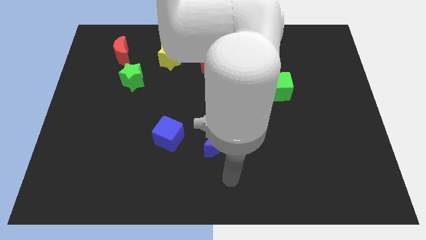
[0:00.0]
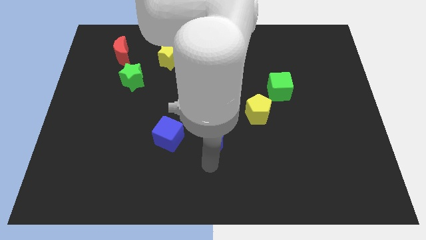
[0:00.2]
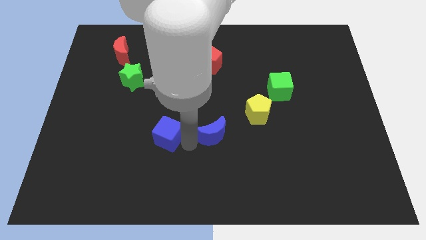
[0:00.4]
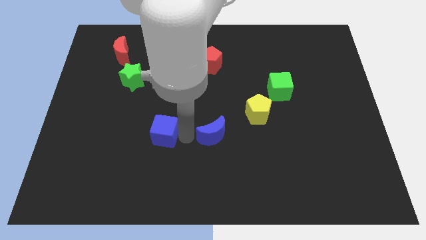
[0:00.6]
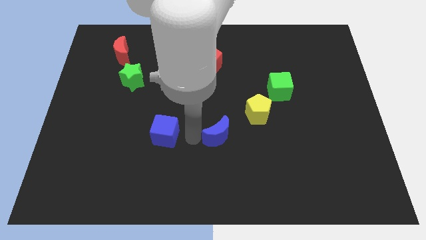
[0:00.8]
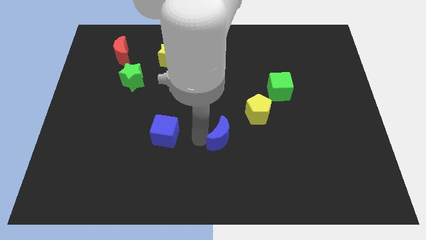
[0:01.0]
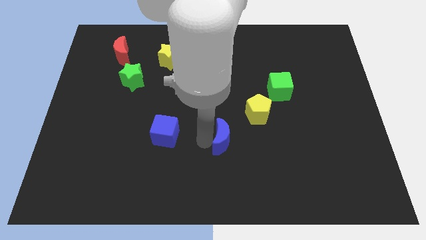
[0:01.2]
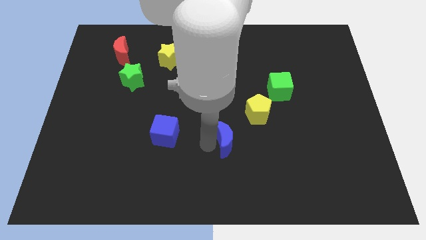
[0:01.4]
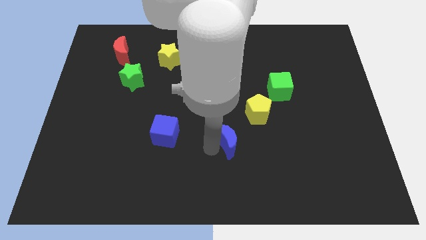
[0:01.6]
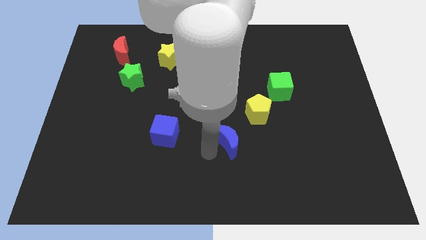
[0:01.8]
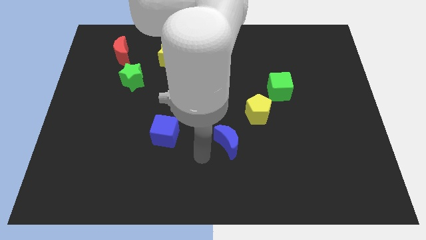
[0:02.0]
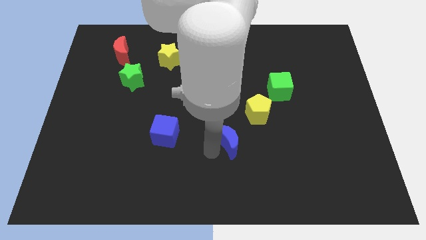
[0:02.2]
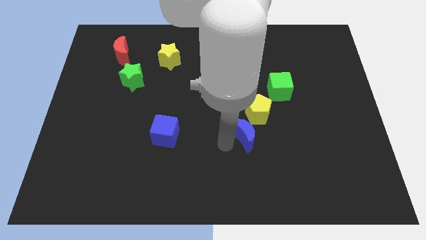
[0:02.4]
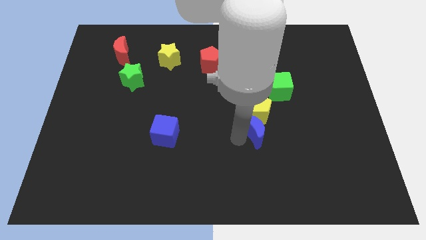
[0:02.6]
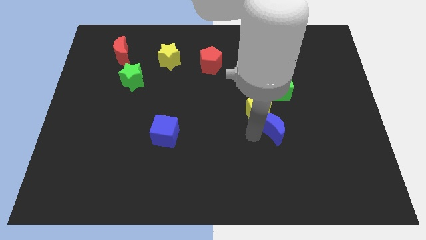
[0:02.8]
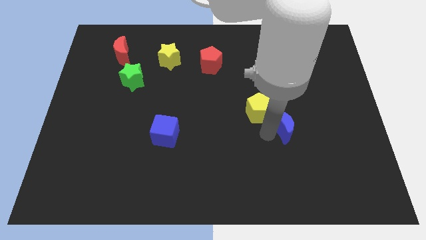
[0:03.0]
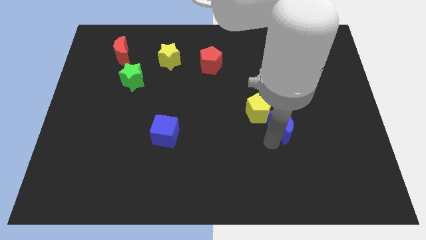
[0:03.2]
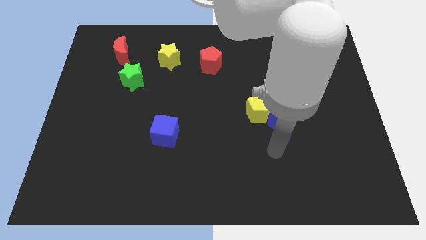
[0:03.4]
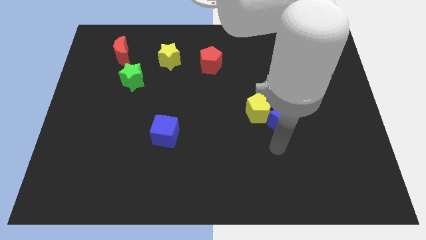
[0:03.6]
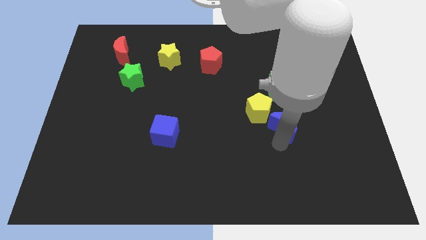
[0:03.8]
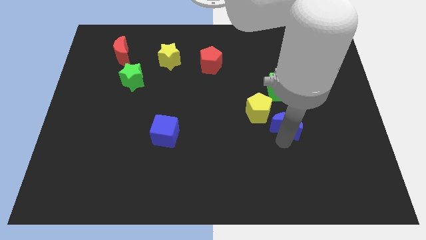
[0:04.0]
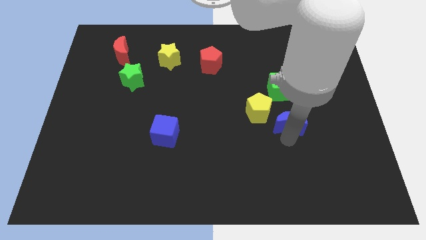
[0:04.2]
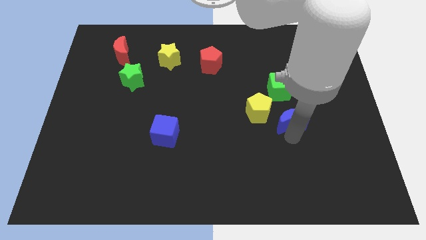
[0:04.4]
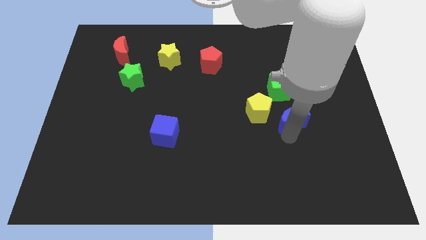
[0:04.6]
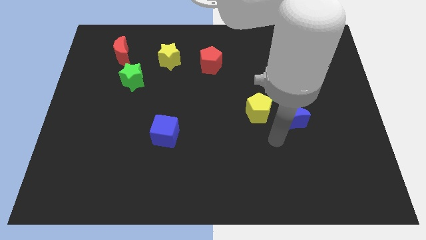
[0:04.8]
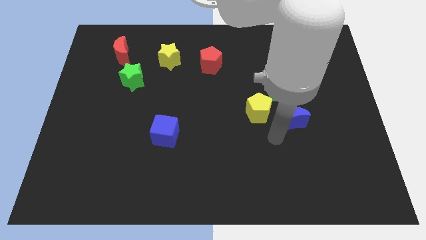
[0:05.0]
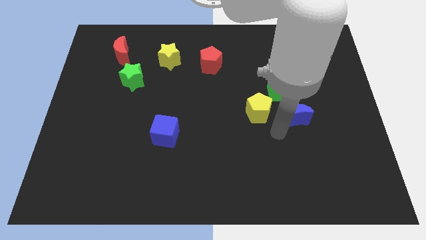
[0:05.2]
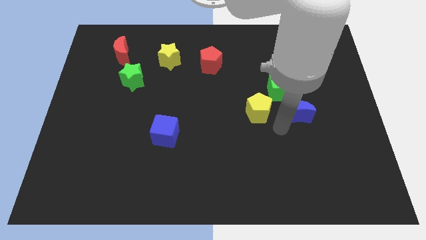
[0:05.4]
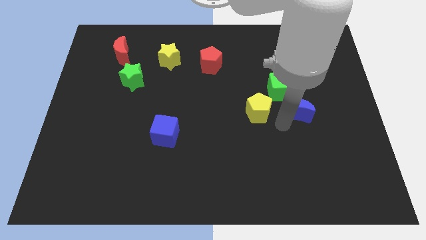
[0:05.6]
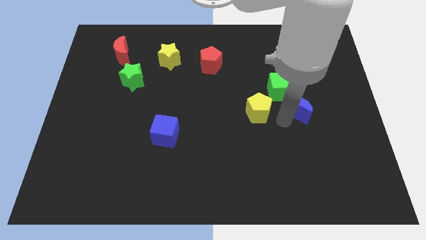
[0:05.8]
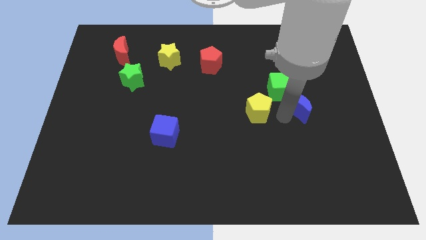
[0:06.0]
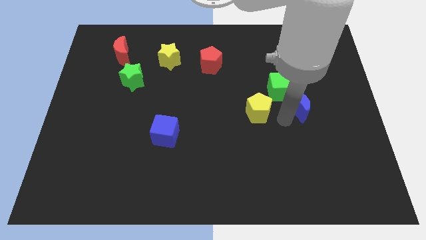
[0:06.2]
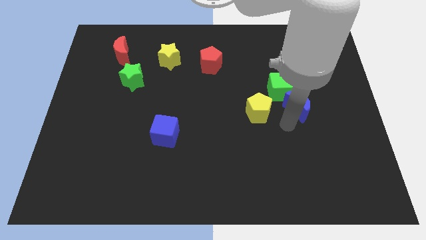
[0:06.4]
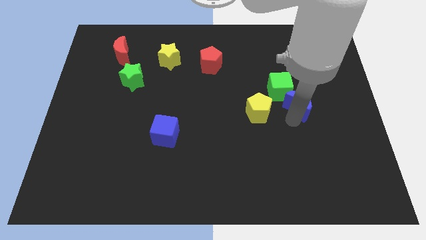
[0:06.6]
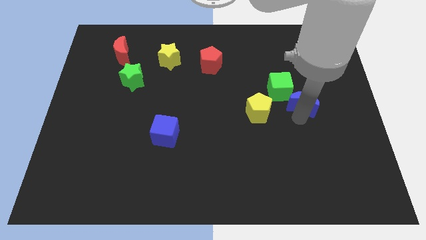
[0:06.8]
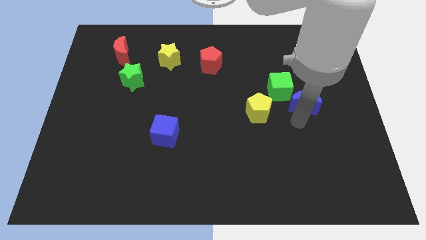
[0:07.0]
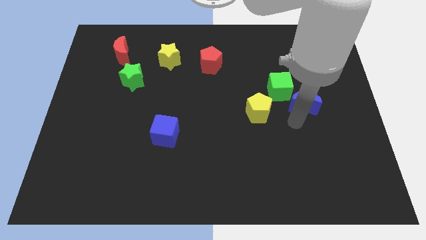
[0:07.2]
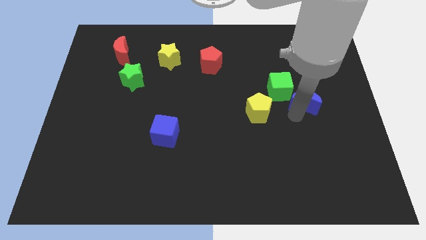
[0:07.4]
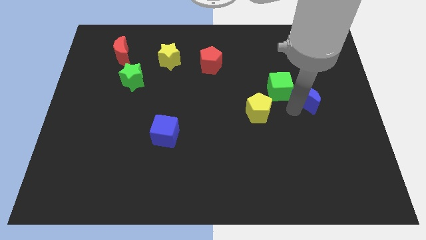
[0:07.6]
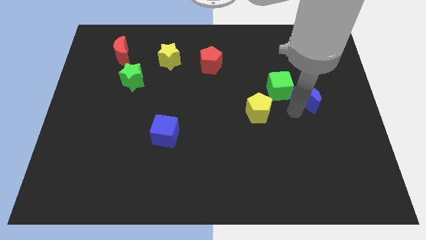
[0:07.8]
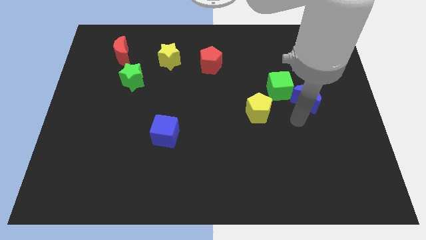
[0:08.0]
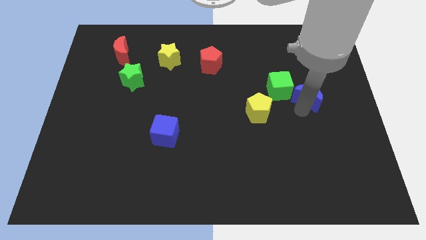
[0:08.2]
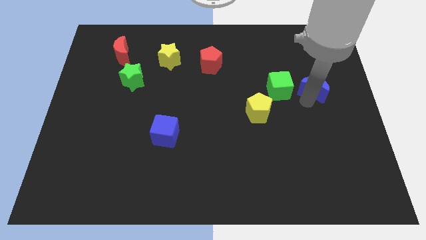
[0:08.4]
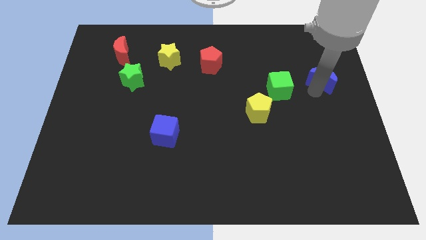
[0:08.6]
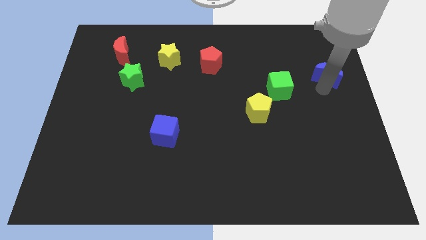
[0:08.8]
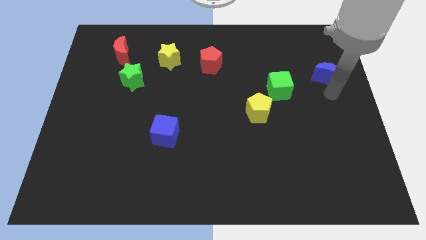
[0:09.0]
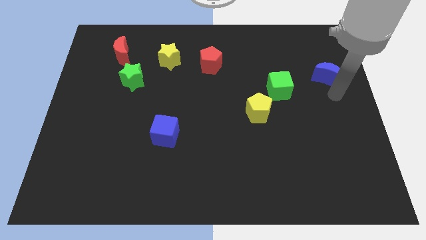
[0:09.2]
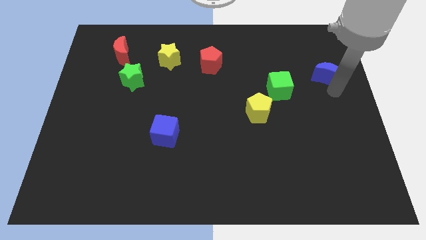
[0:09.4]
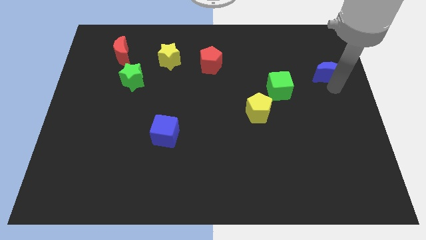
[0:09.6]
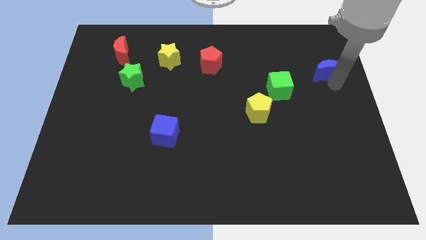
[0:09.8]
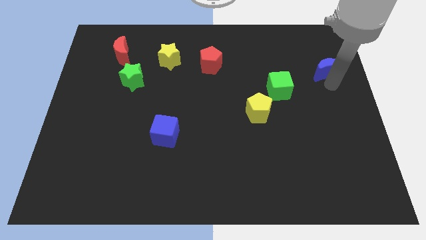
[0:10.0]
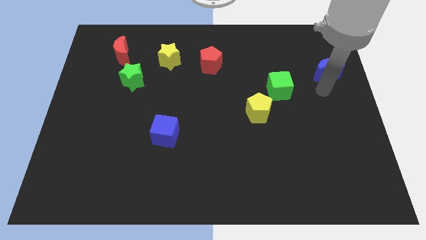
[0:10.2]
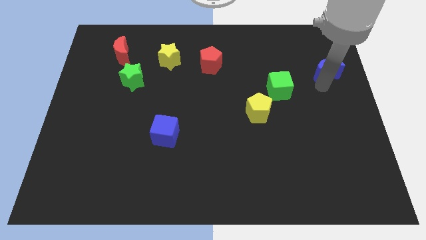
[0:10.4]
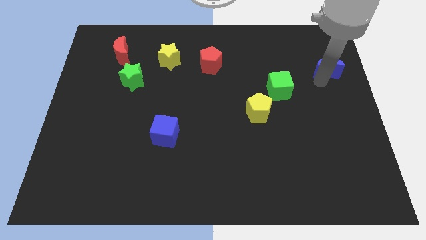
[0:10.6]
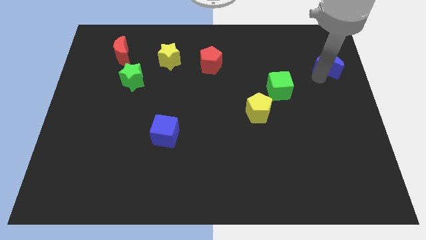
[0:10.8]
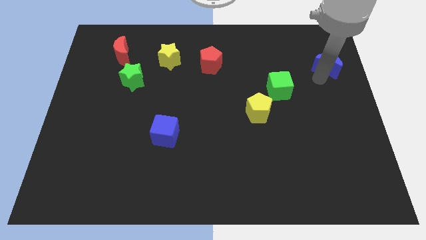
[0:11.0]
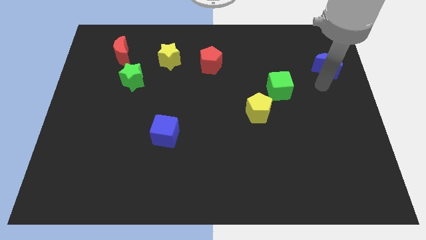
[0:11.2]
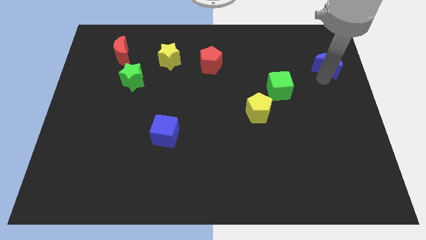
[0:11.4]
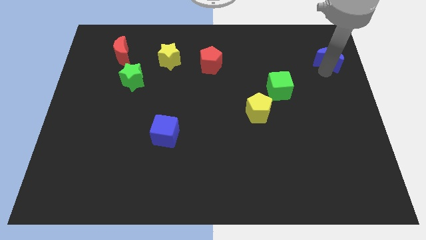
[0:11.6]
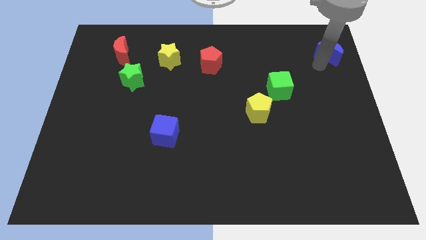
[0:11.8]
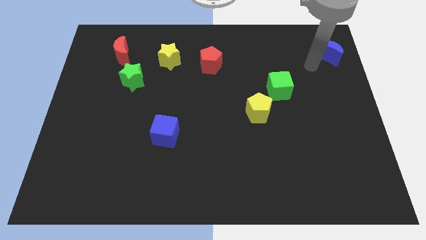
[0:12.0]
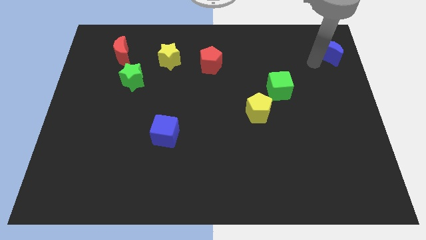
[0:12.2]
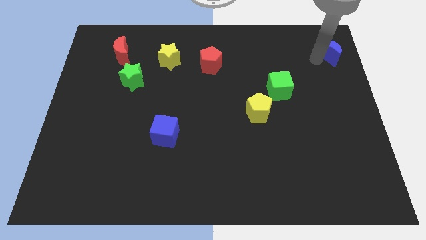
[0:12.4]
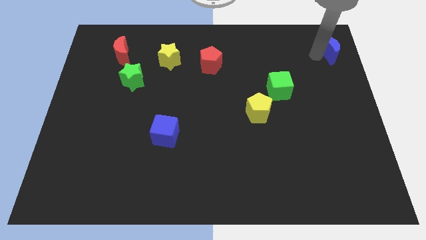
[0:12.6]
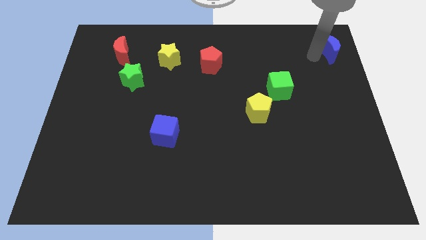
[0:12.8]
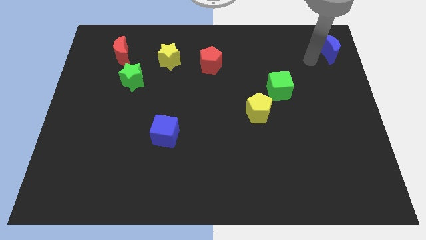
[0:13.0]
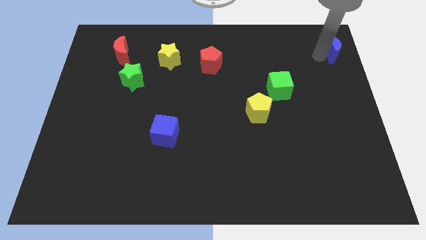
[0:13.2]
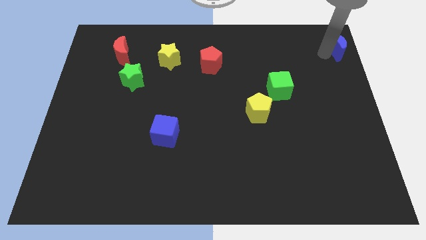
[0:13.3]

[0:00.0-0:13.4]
push the blue moon to the top right of the board

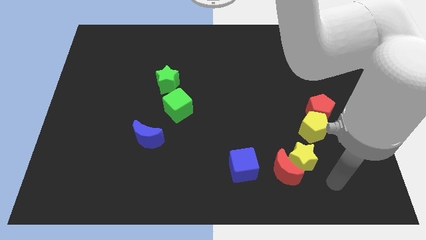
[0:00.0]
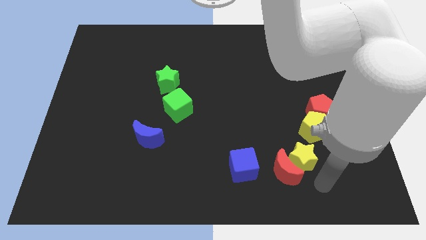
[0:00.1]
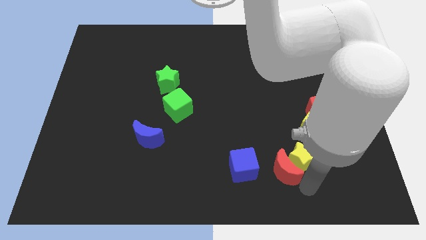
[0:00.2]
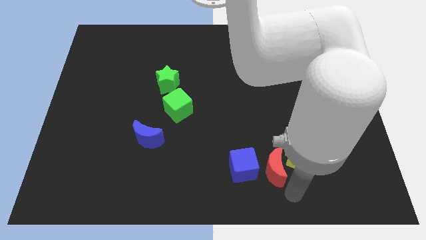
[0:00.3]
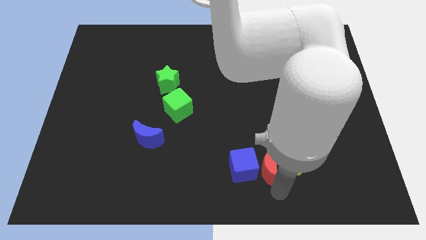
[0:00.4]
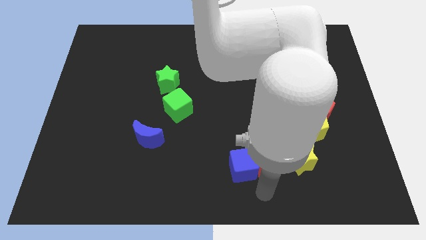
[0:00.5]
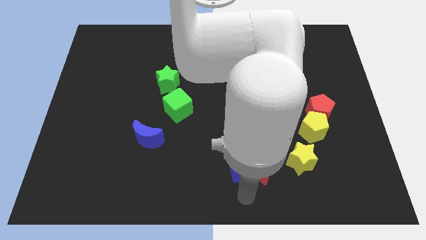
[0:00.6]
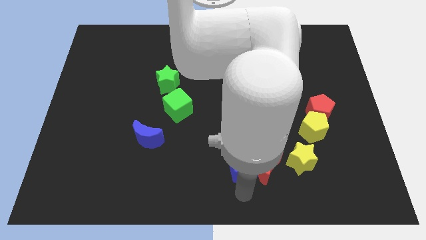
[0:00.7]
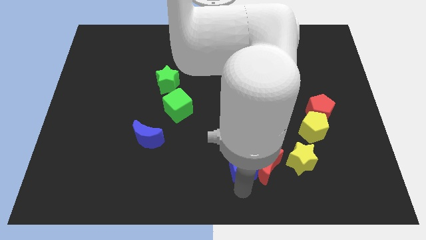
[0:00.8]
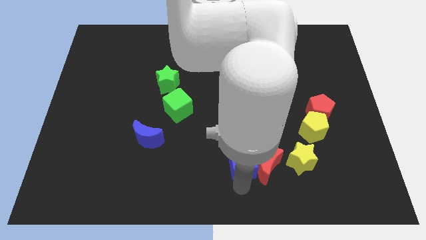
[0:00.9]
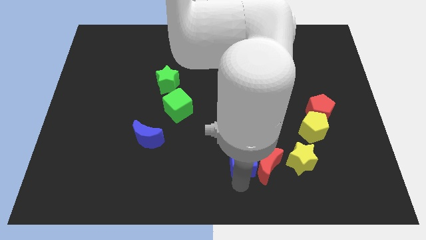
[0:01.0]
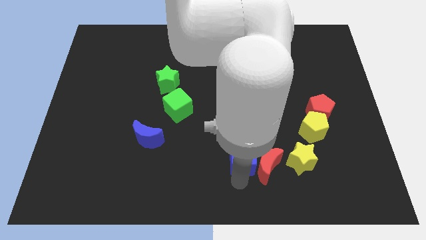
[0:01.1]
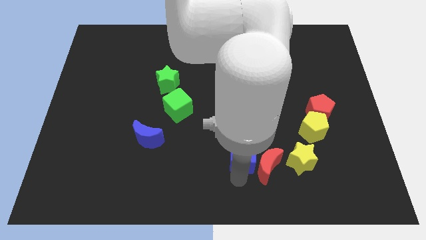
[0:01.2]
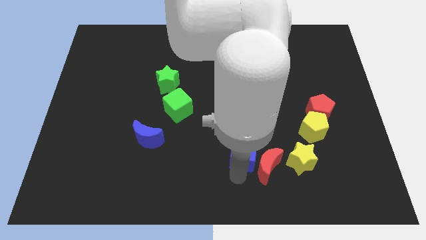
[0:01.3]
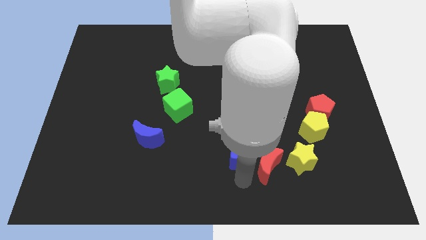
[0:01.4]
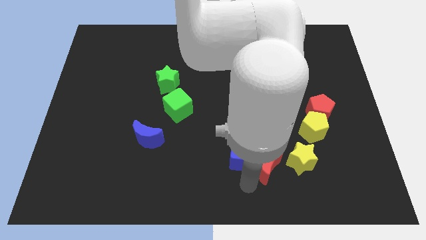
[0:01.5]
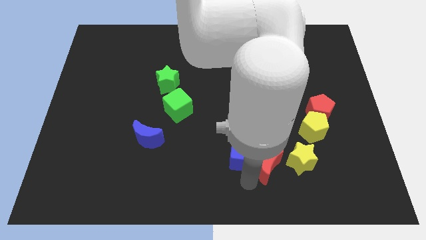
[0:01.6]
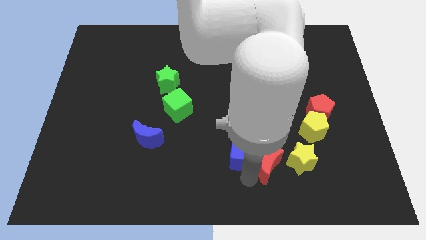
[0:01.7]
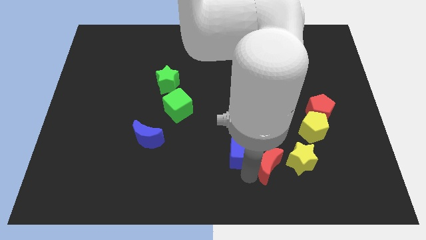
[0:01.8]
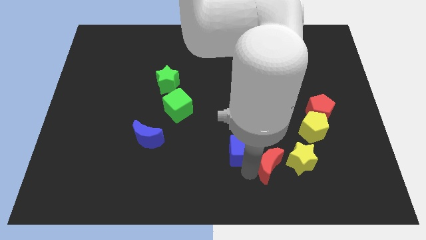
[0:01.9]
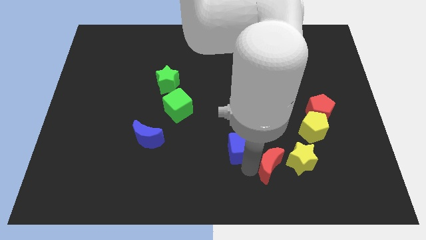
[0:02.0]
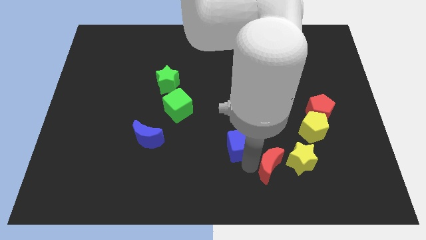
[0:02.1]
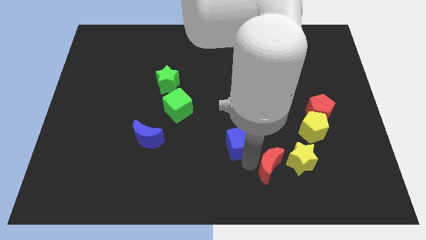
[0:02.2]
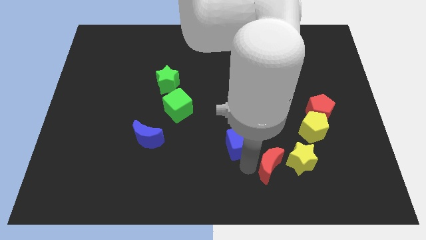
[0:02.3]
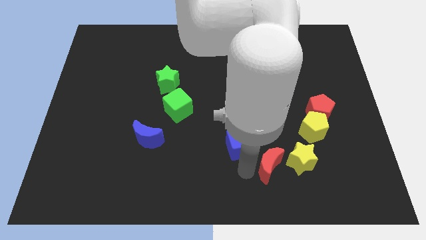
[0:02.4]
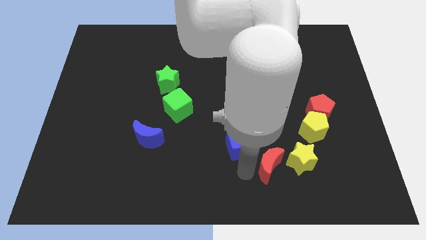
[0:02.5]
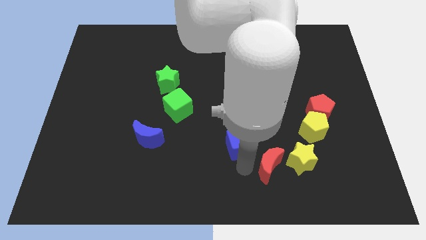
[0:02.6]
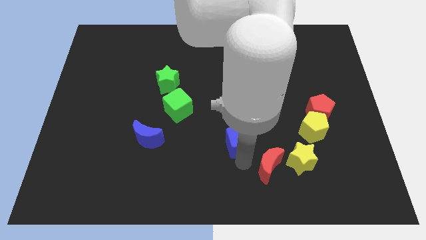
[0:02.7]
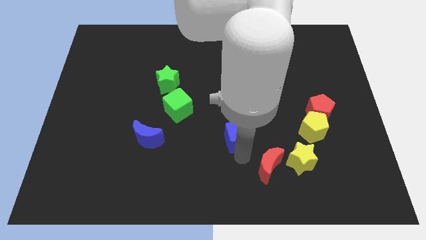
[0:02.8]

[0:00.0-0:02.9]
put the blue cube to the center
